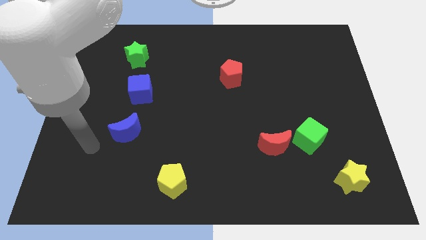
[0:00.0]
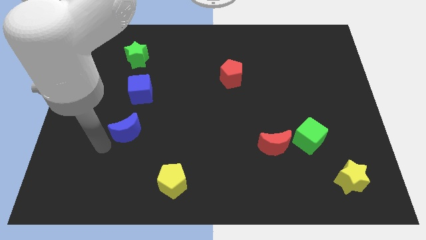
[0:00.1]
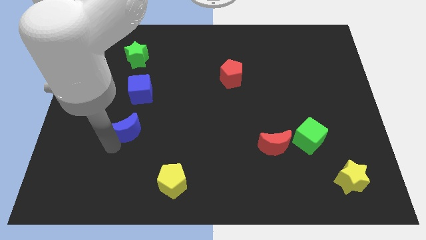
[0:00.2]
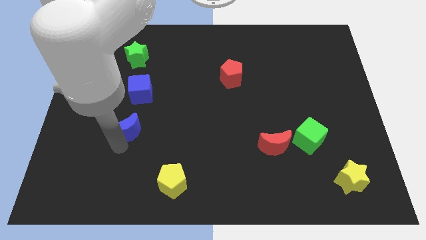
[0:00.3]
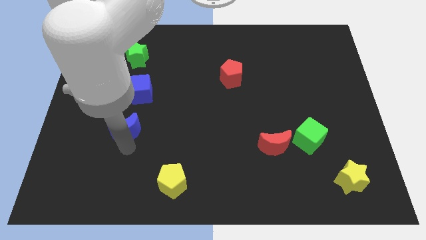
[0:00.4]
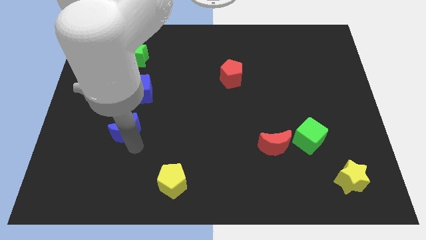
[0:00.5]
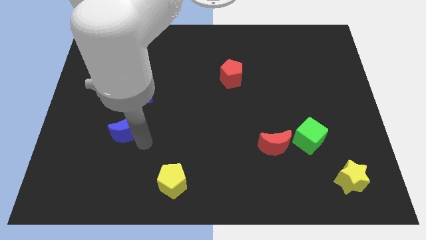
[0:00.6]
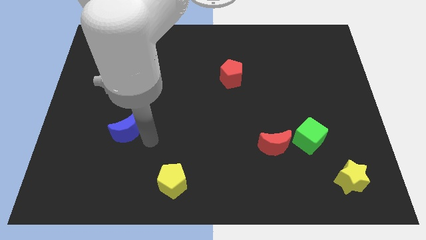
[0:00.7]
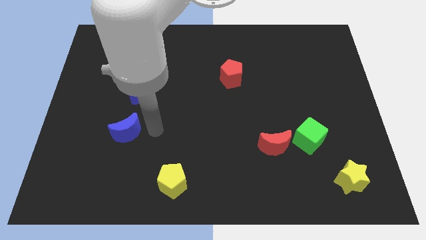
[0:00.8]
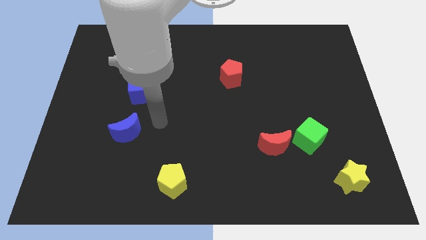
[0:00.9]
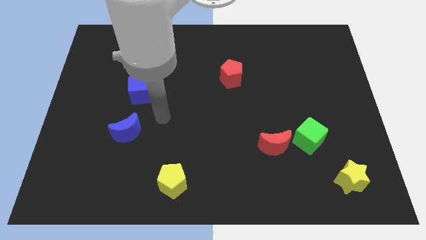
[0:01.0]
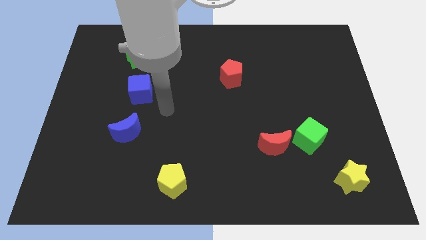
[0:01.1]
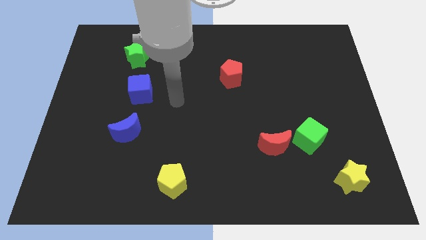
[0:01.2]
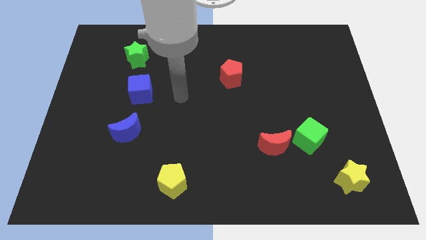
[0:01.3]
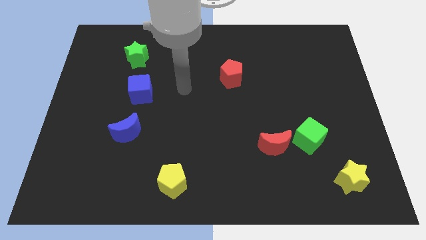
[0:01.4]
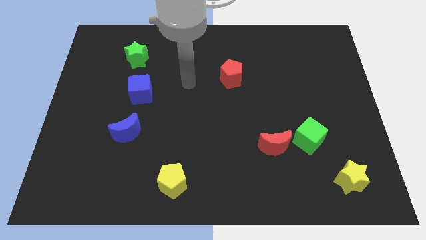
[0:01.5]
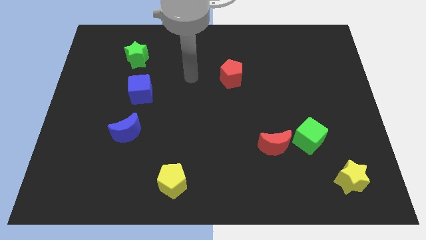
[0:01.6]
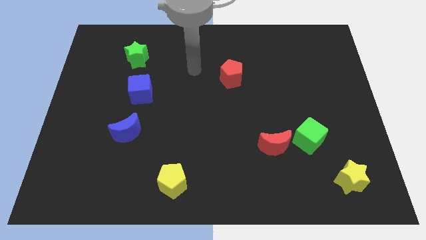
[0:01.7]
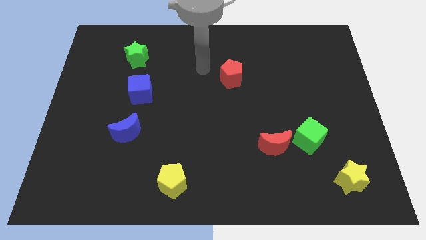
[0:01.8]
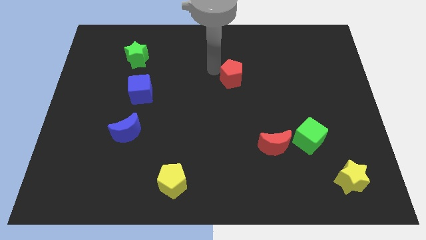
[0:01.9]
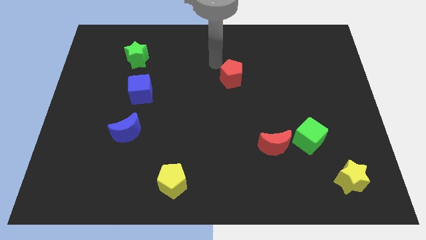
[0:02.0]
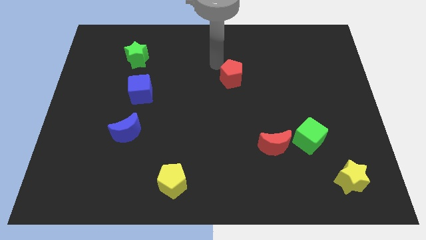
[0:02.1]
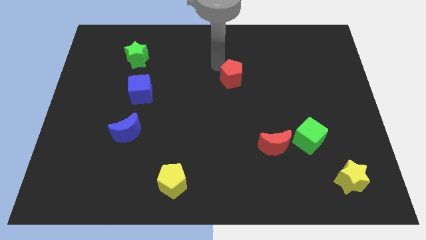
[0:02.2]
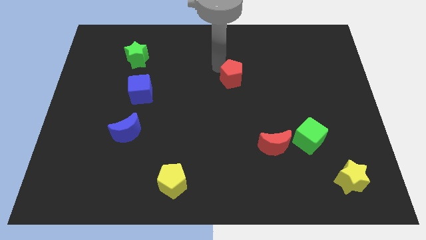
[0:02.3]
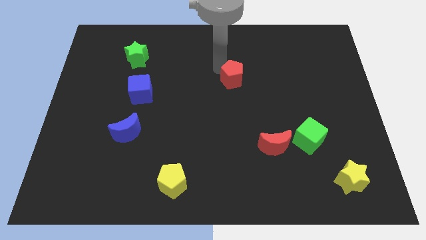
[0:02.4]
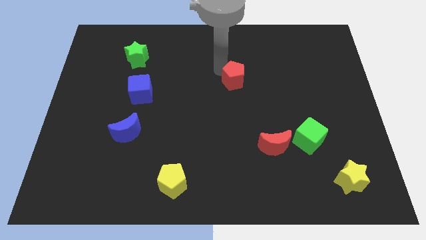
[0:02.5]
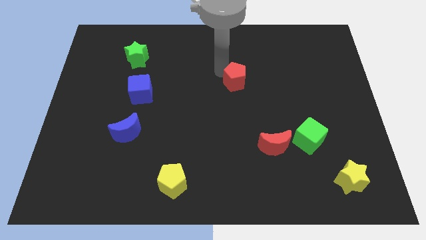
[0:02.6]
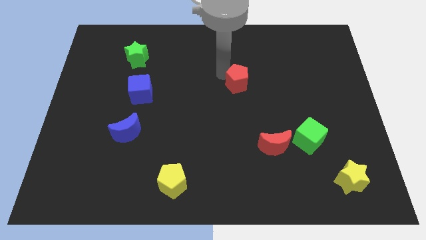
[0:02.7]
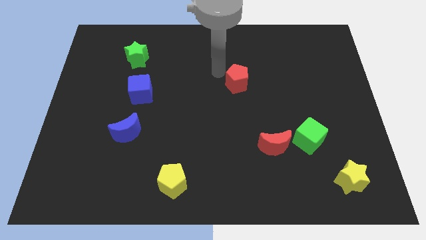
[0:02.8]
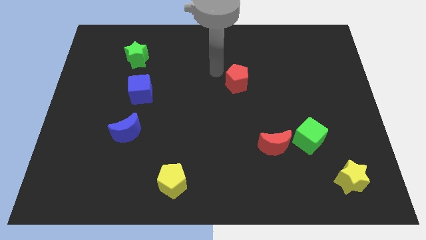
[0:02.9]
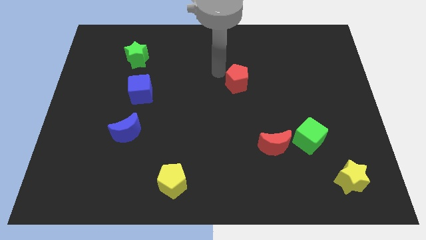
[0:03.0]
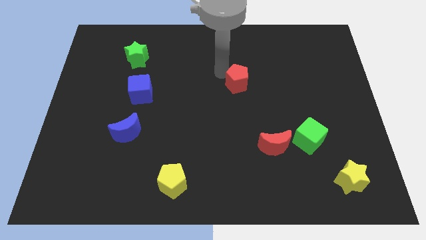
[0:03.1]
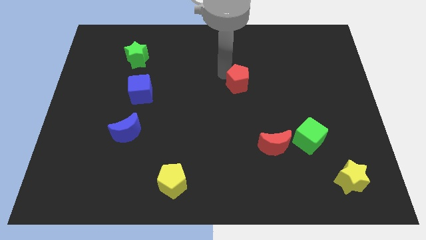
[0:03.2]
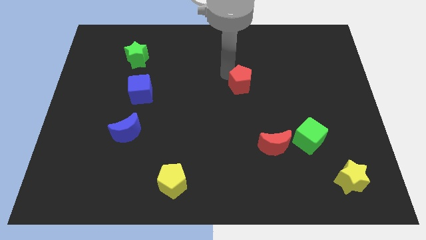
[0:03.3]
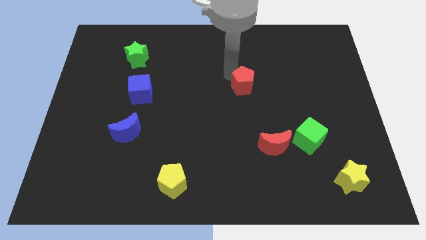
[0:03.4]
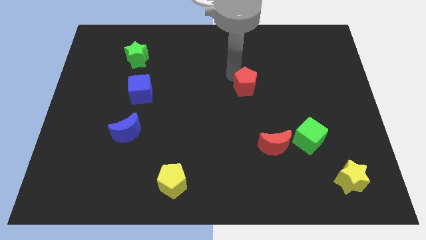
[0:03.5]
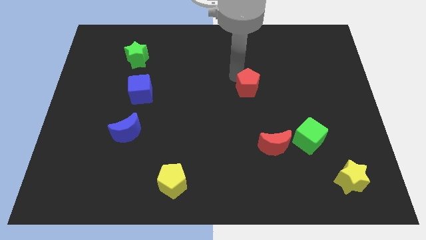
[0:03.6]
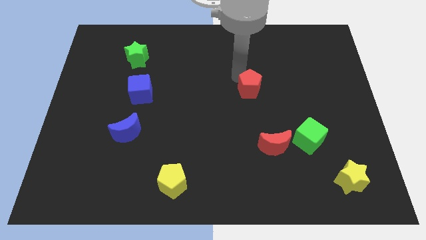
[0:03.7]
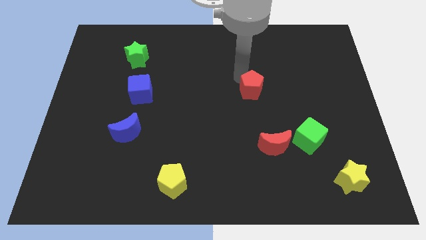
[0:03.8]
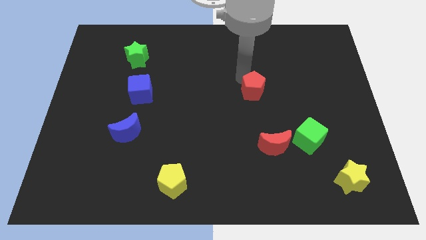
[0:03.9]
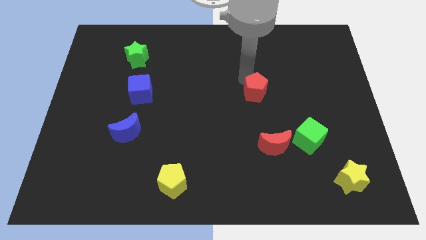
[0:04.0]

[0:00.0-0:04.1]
slide the red pentagon somewhat down and then to the right

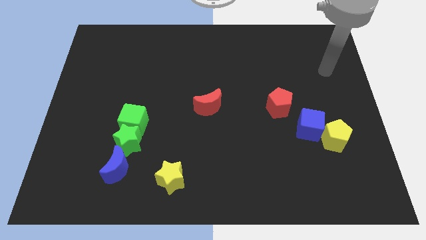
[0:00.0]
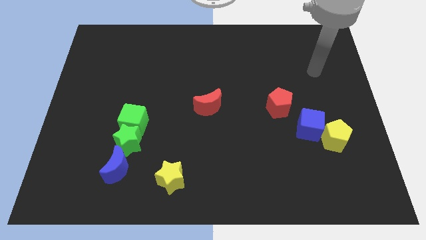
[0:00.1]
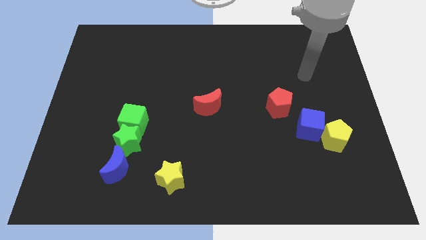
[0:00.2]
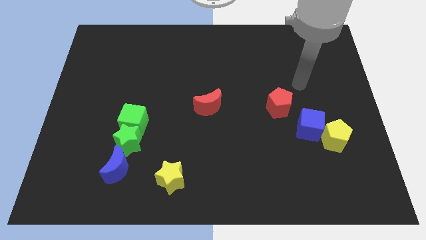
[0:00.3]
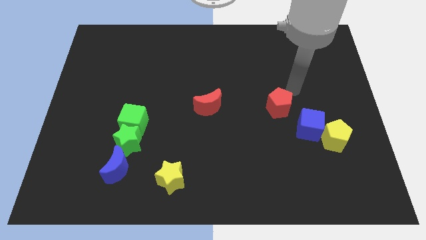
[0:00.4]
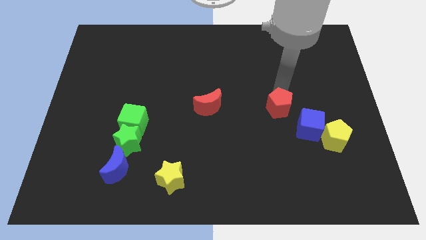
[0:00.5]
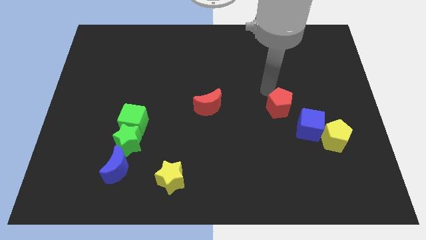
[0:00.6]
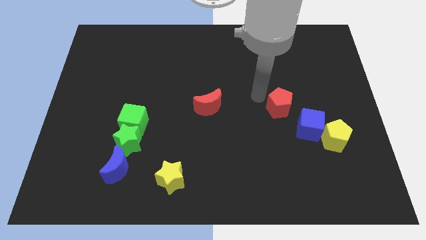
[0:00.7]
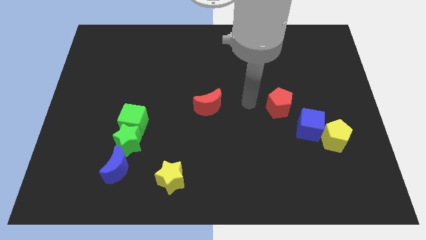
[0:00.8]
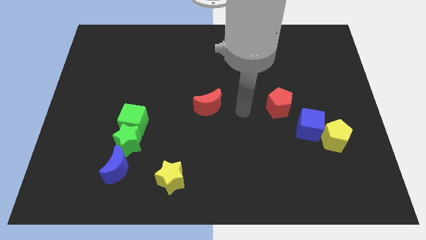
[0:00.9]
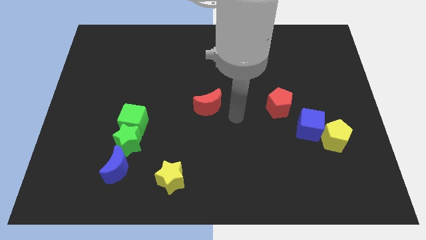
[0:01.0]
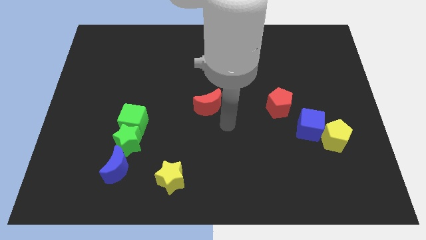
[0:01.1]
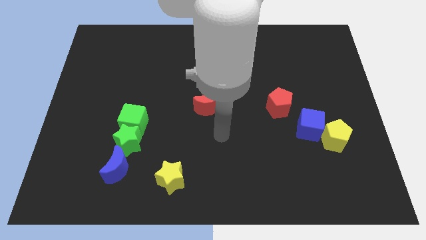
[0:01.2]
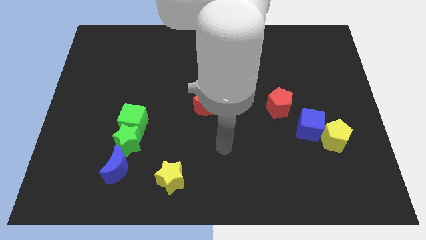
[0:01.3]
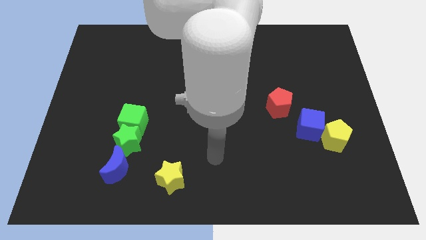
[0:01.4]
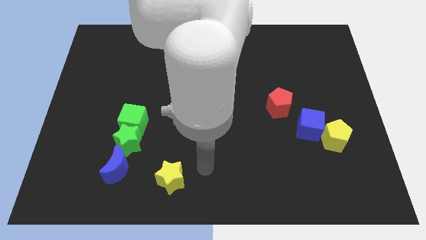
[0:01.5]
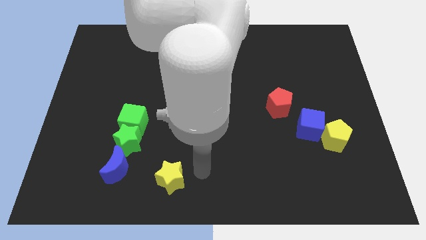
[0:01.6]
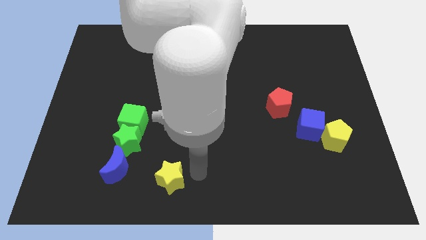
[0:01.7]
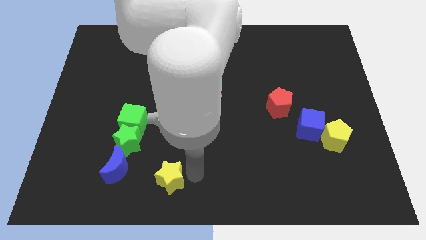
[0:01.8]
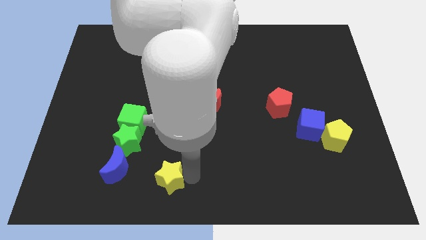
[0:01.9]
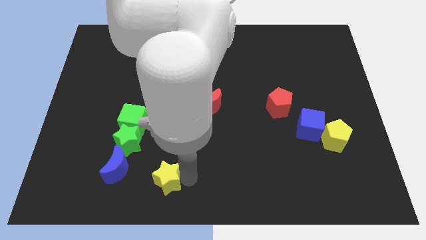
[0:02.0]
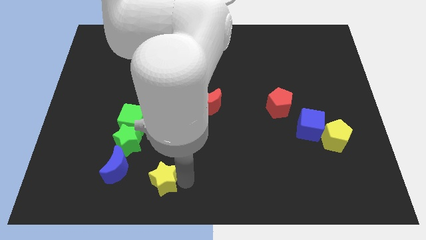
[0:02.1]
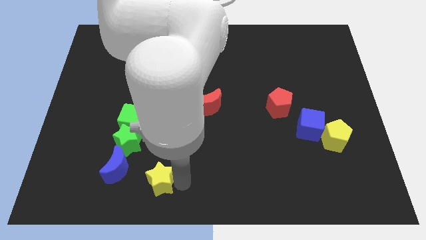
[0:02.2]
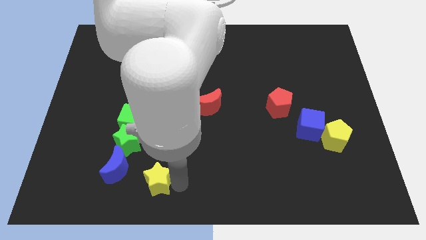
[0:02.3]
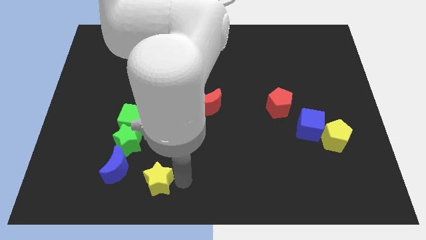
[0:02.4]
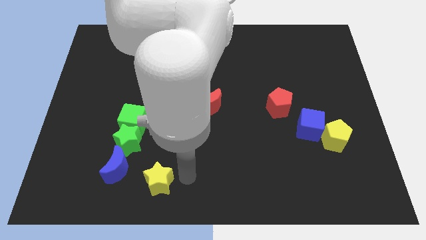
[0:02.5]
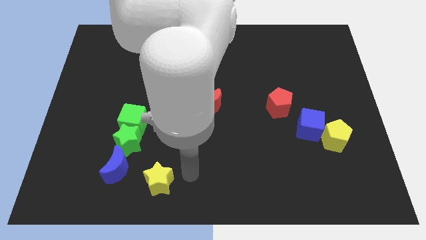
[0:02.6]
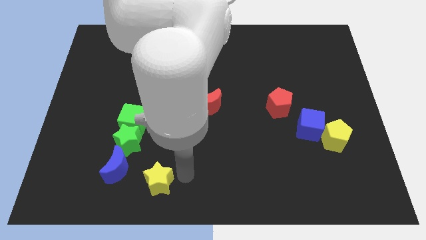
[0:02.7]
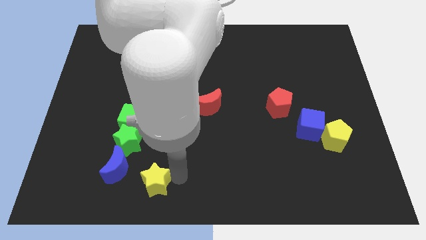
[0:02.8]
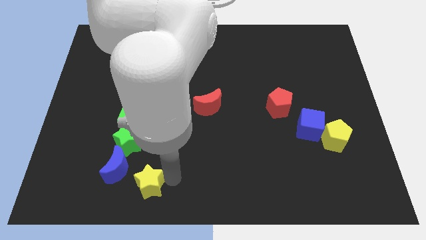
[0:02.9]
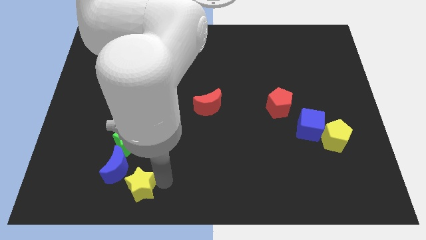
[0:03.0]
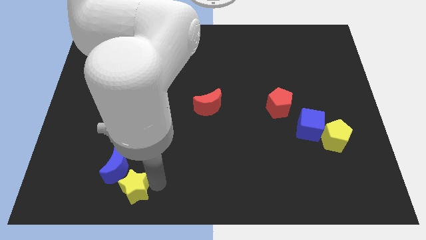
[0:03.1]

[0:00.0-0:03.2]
slide the yellow star a little bit to the left

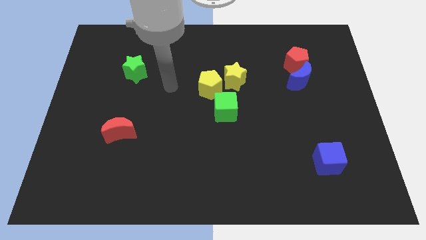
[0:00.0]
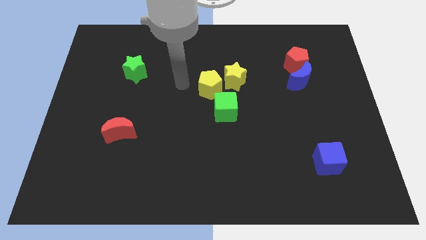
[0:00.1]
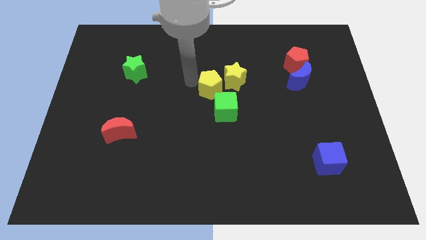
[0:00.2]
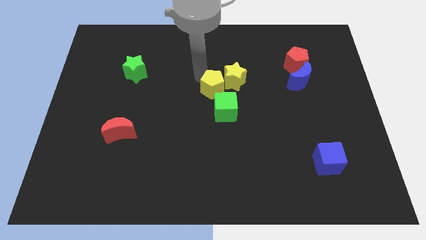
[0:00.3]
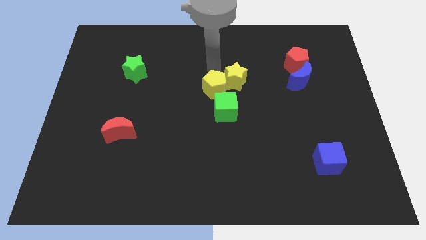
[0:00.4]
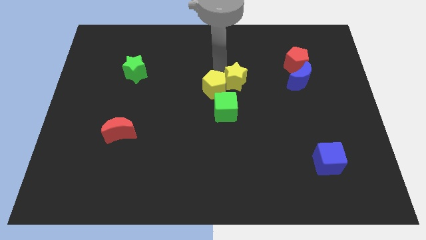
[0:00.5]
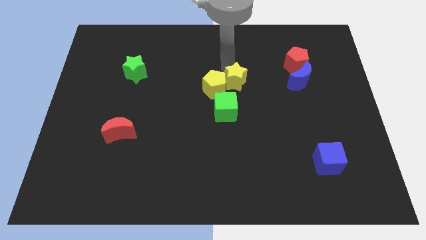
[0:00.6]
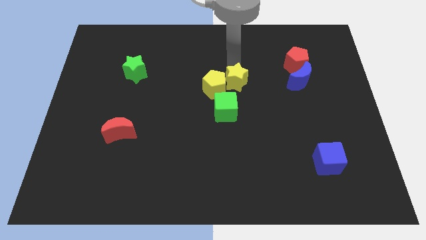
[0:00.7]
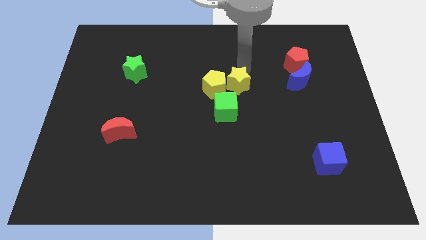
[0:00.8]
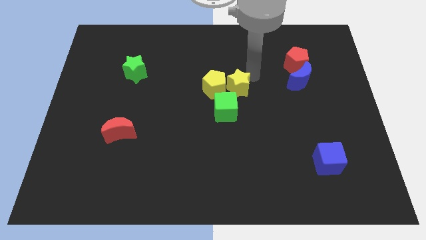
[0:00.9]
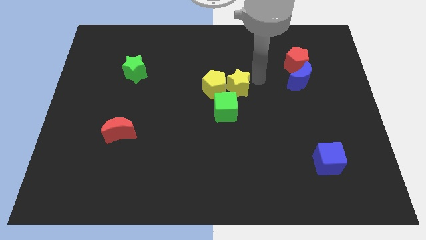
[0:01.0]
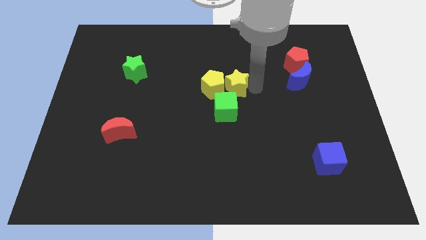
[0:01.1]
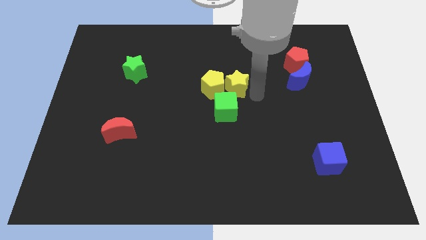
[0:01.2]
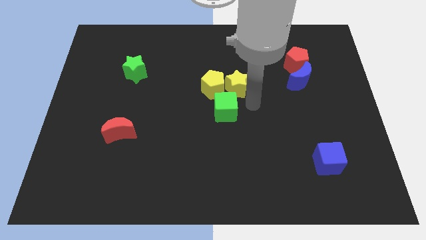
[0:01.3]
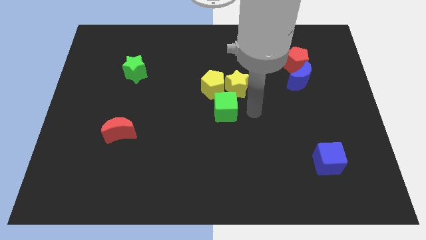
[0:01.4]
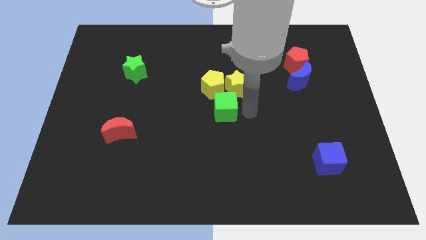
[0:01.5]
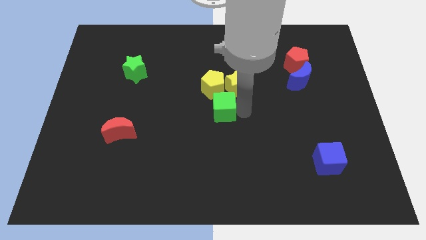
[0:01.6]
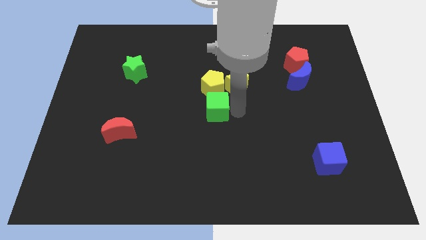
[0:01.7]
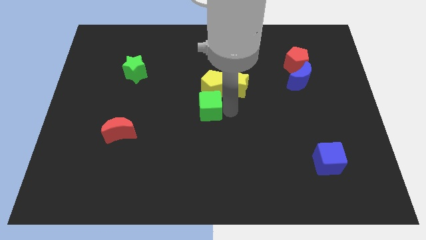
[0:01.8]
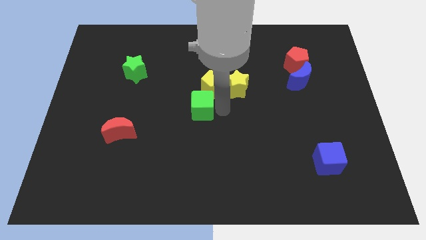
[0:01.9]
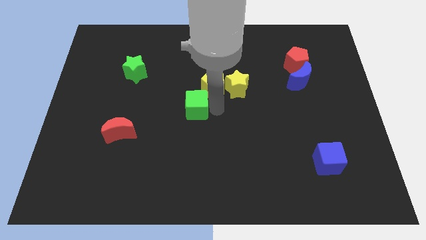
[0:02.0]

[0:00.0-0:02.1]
move the green cube left somewhat
